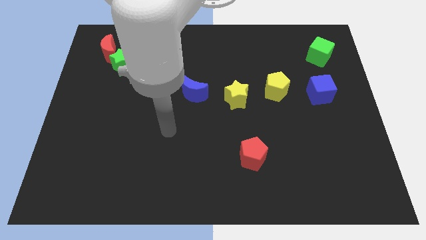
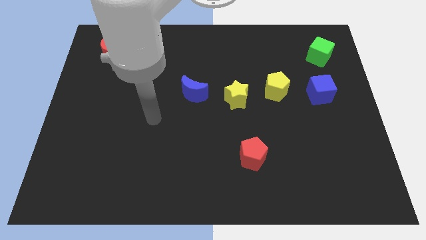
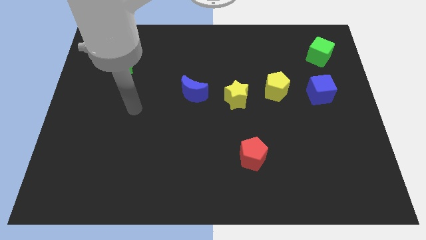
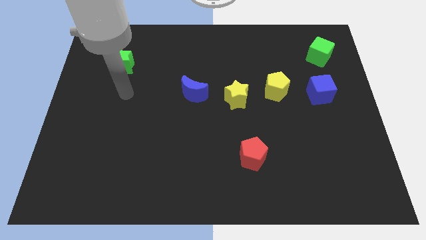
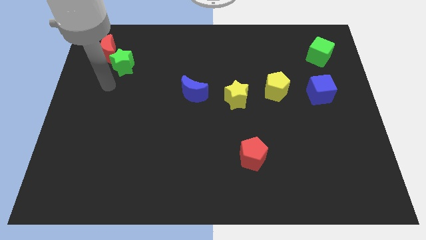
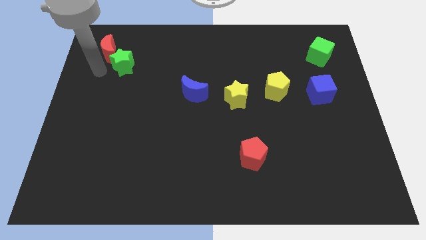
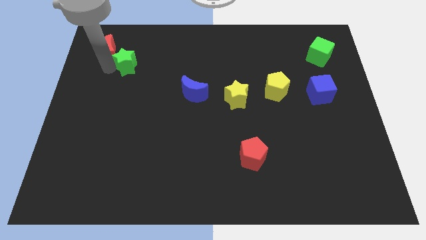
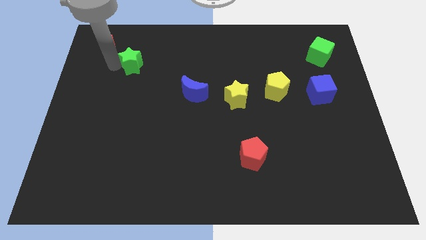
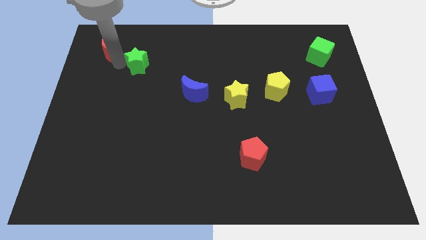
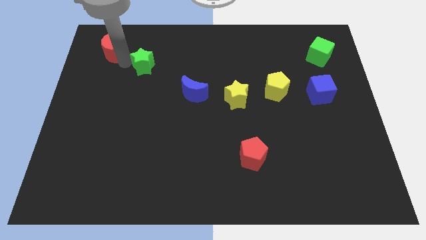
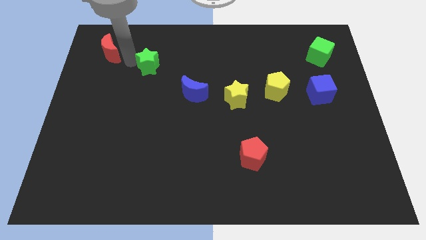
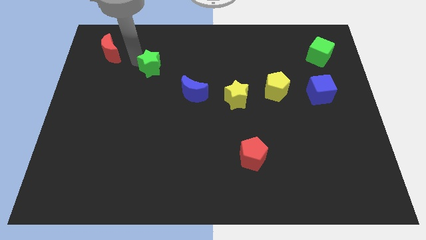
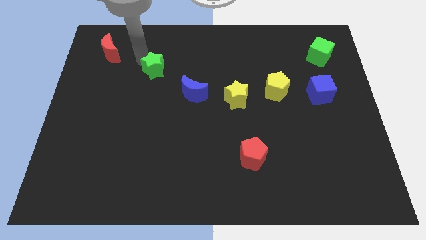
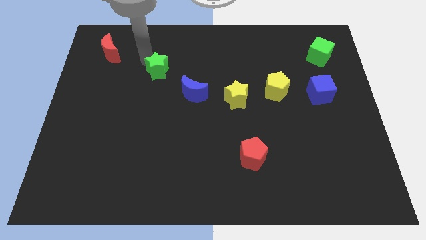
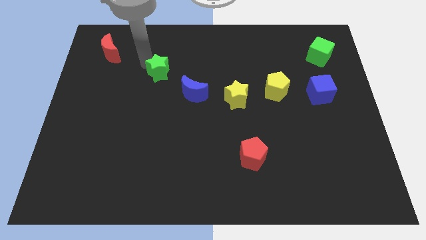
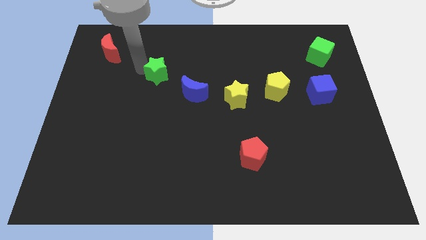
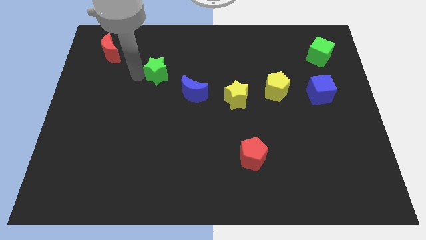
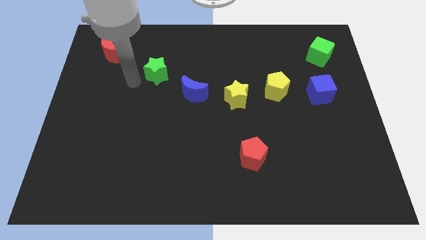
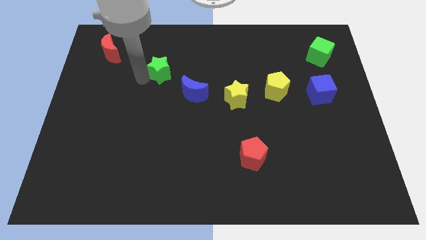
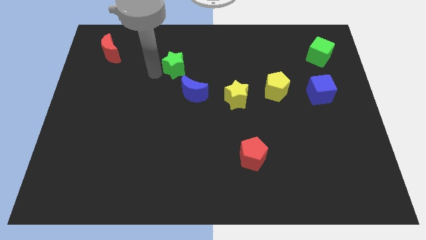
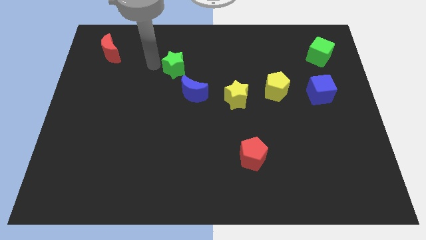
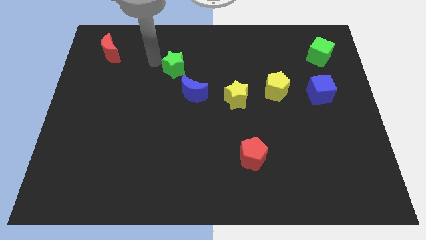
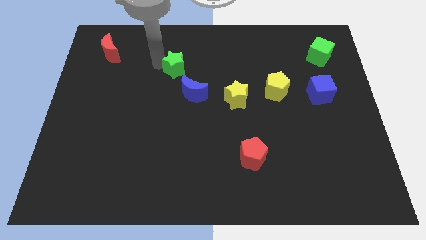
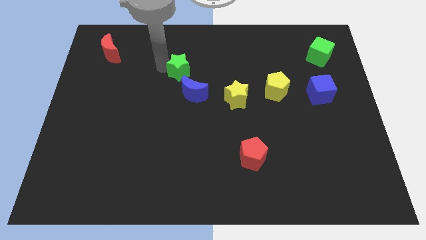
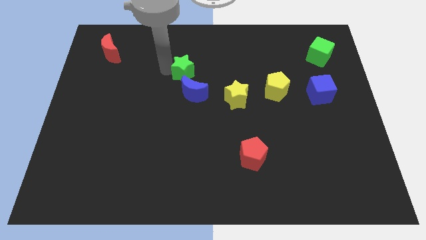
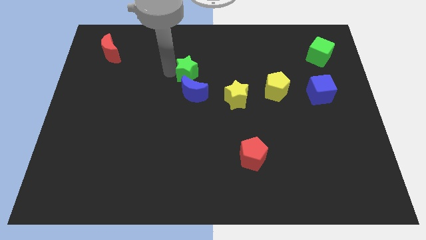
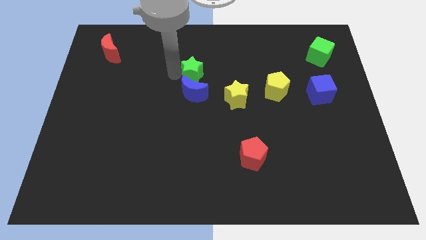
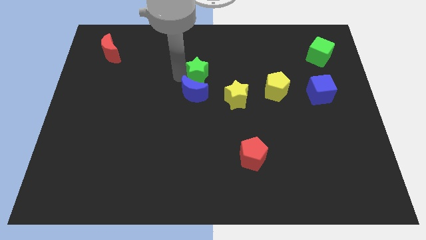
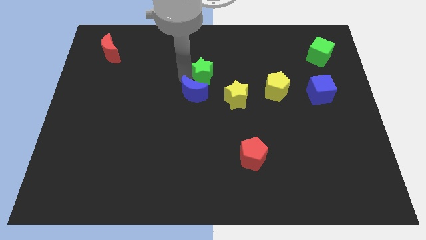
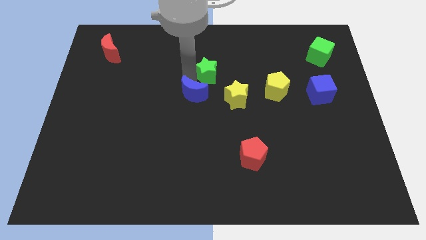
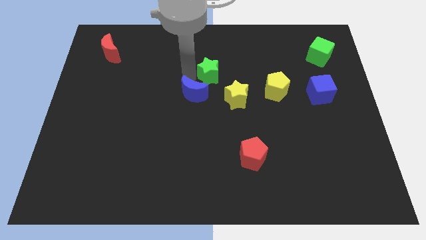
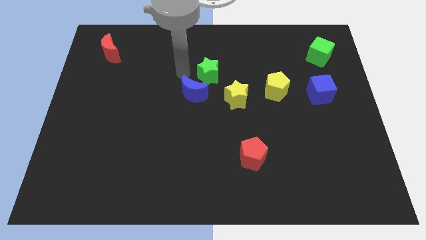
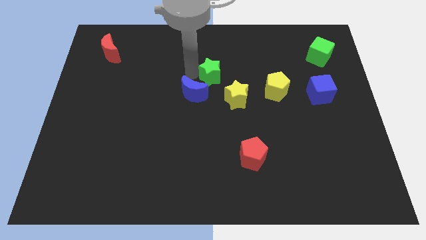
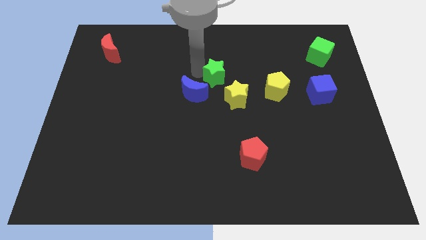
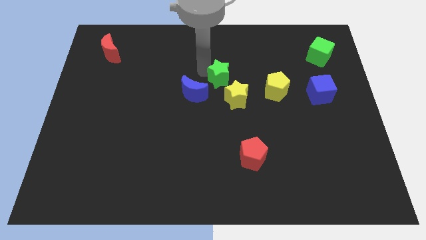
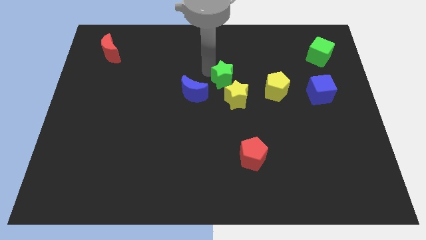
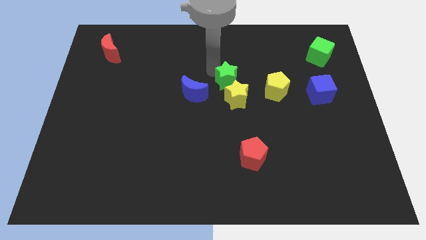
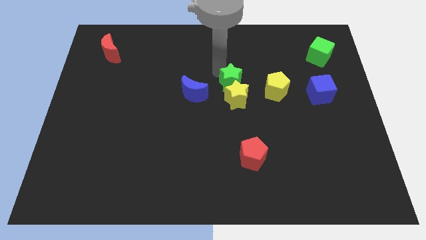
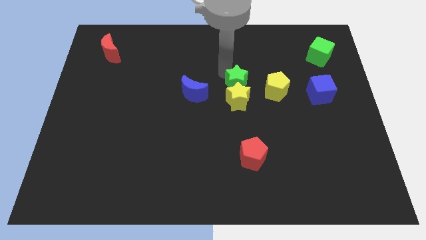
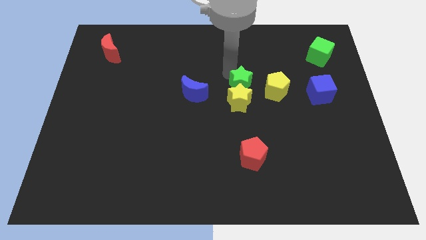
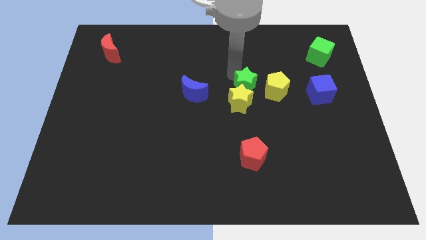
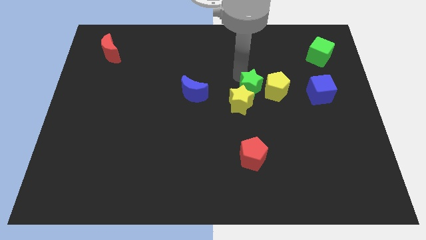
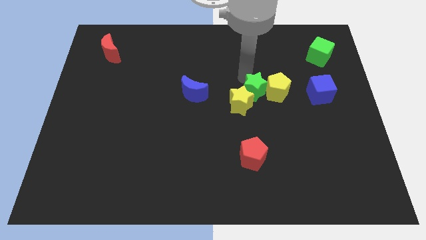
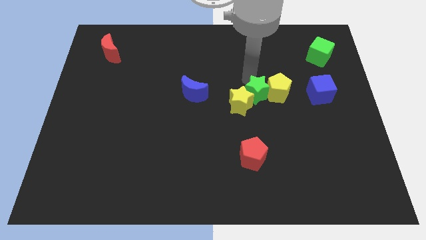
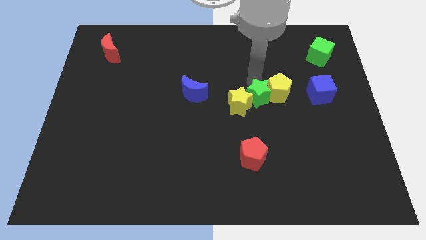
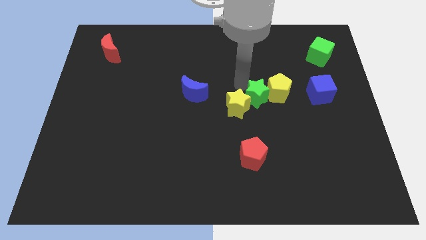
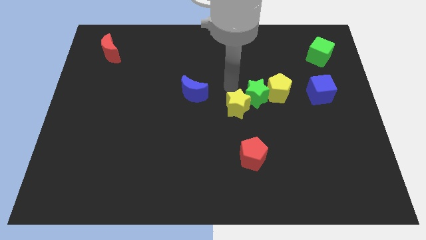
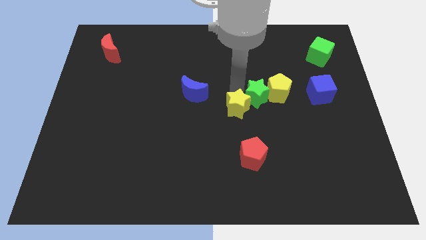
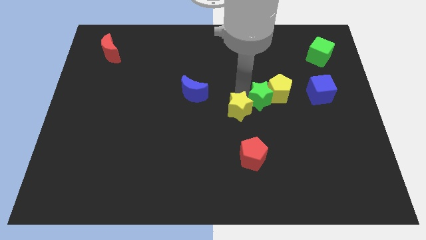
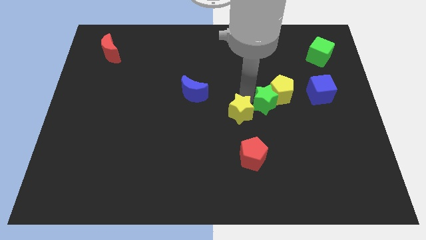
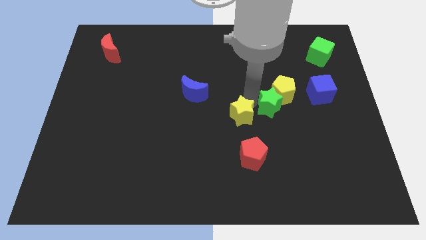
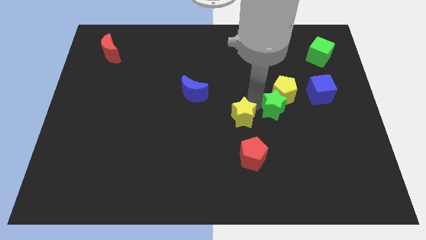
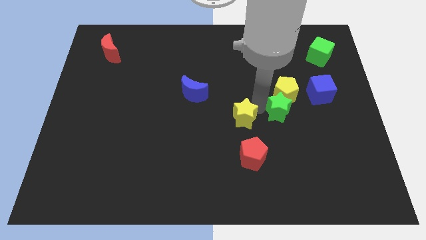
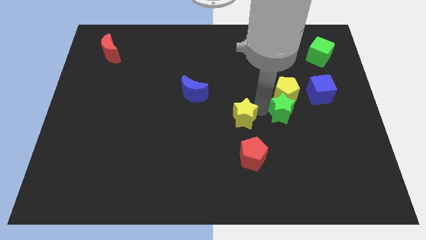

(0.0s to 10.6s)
move the green star to the bottom left side of the blue cube

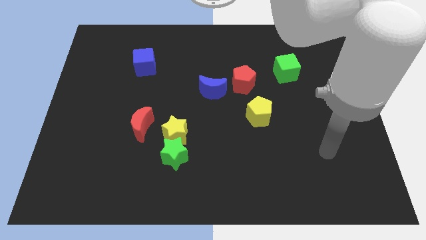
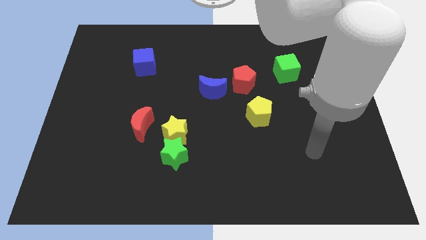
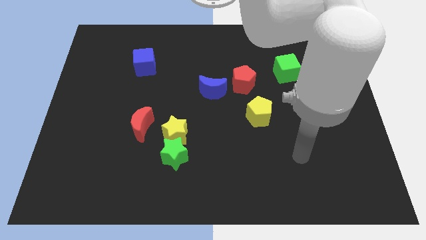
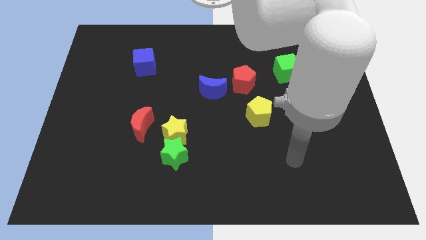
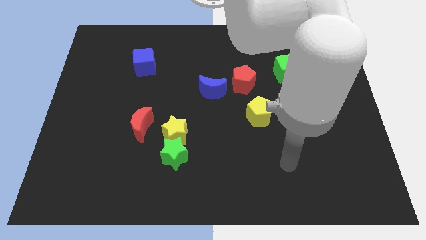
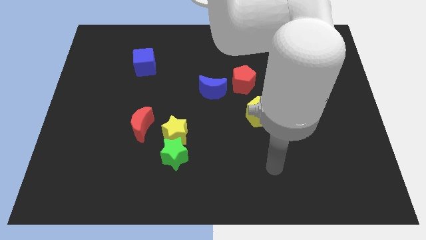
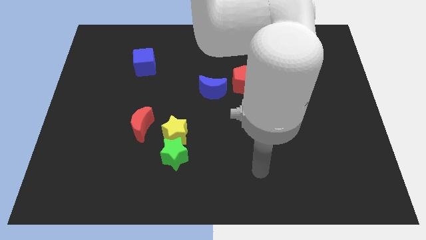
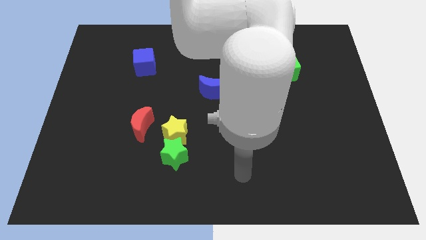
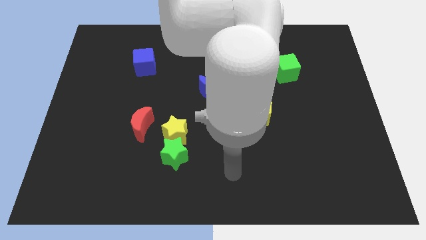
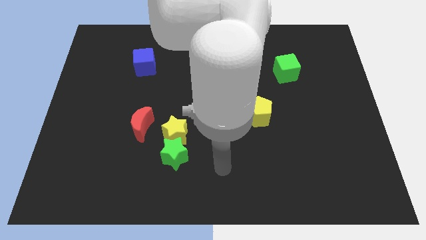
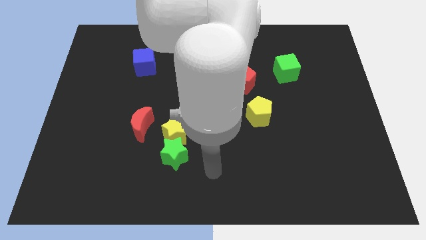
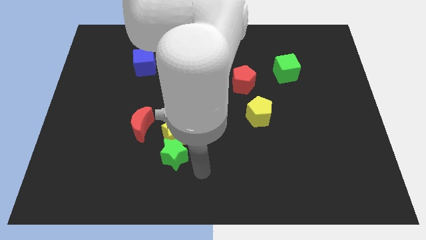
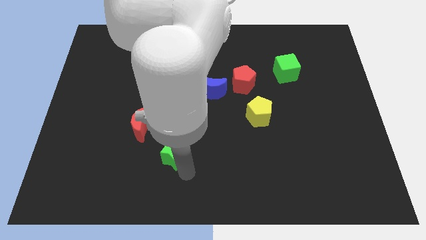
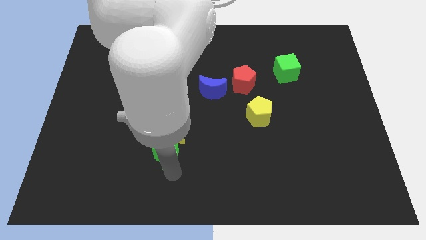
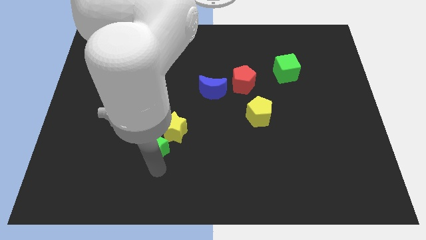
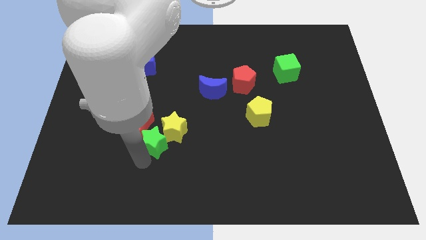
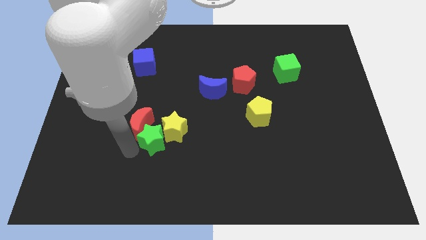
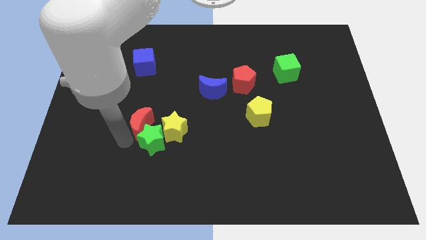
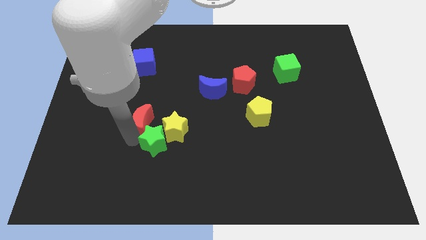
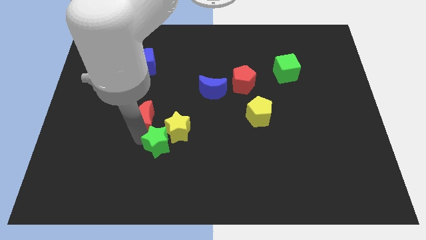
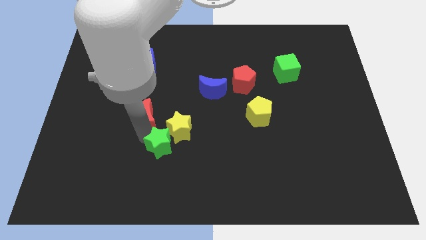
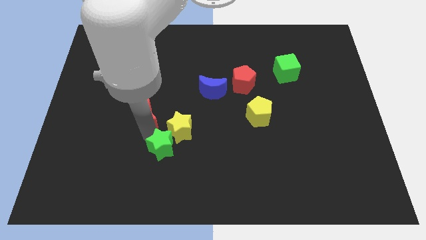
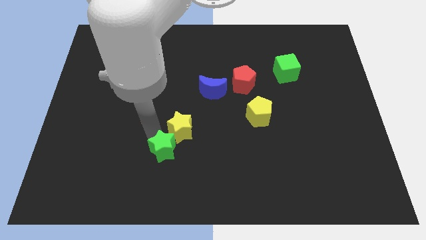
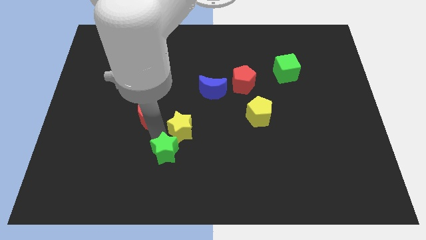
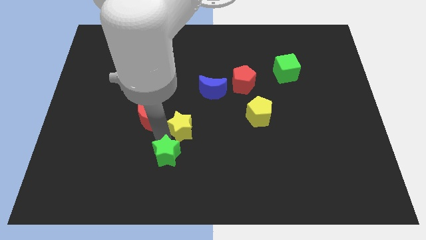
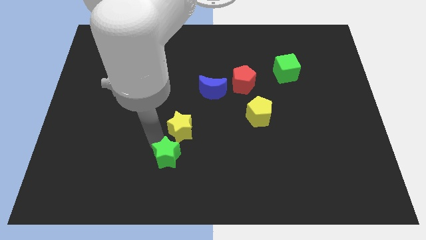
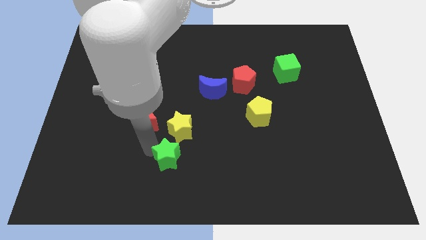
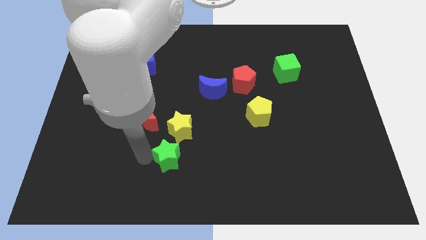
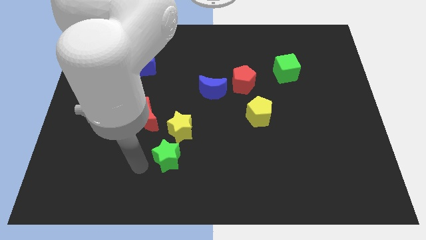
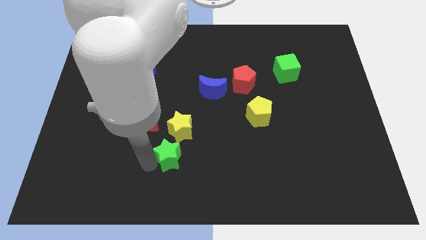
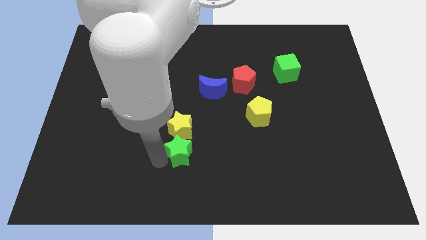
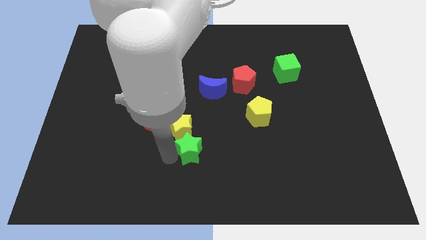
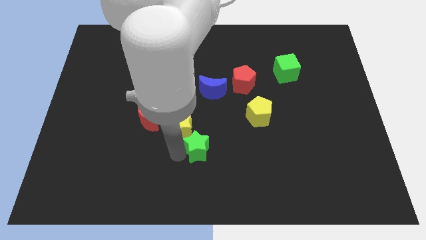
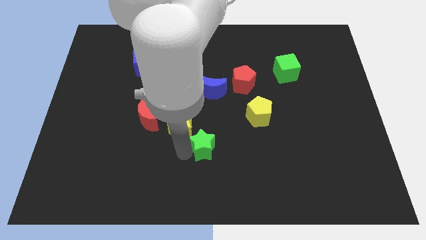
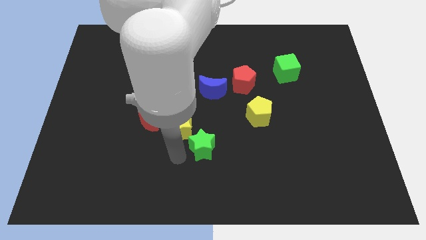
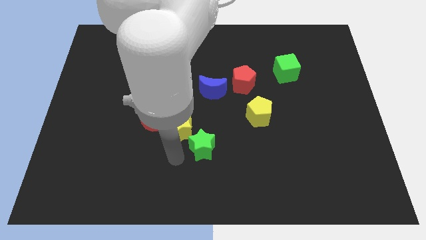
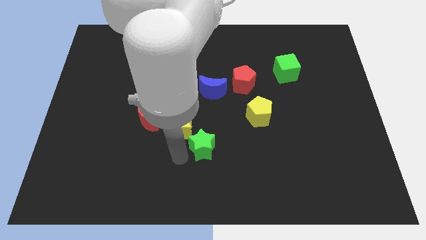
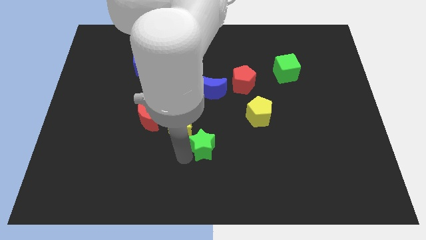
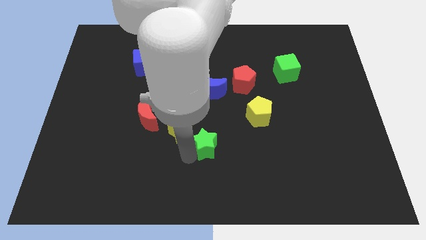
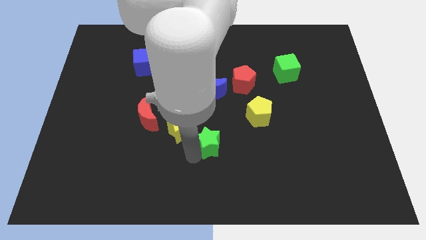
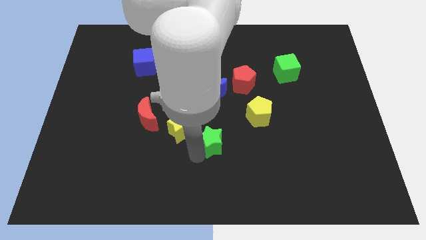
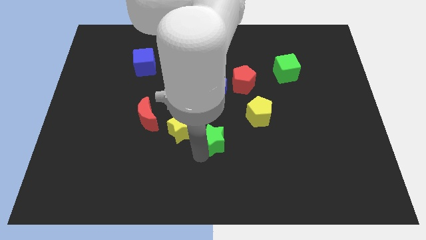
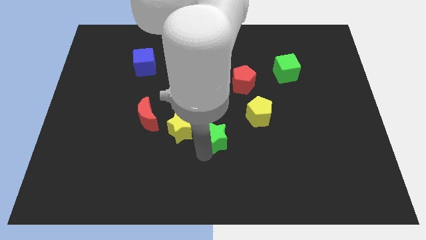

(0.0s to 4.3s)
push the green star to the bottom left of the yellow pentagon
